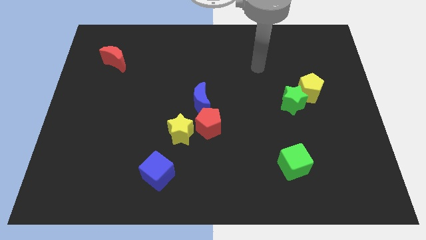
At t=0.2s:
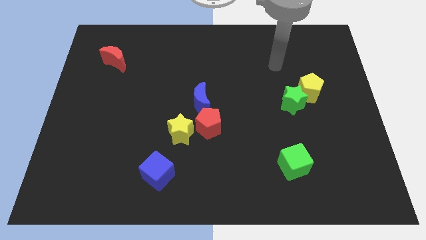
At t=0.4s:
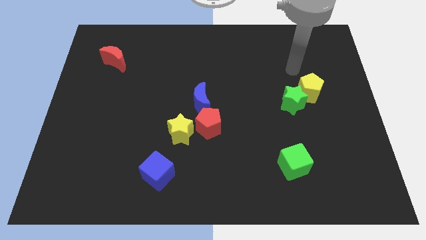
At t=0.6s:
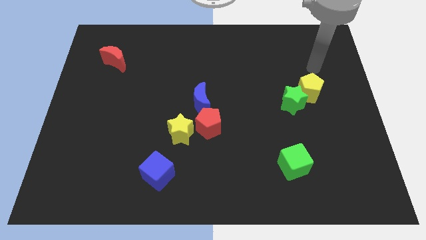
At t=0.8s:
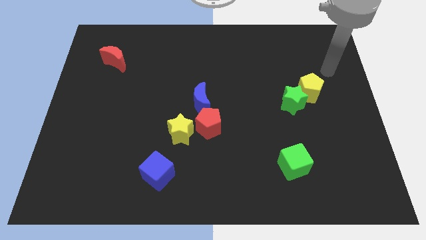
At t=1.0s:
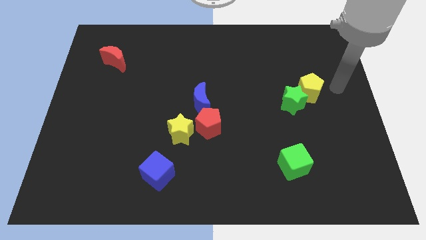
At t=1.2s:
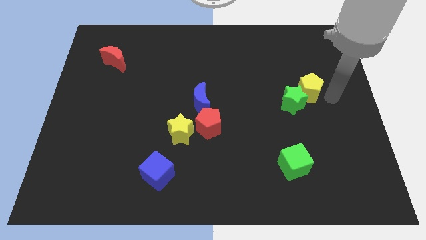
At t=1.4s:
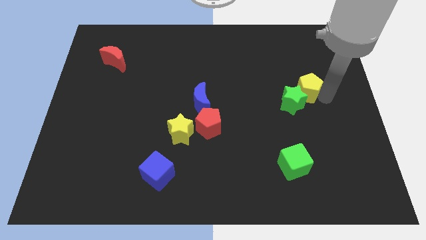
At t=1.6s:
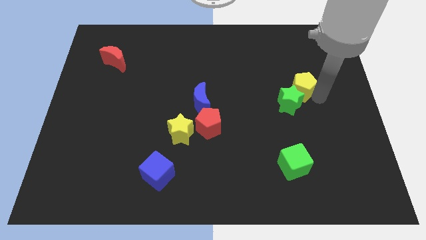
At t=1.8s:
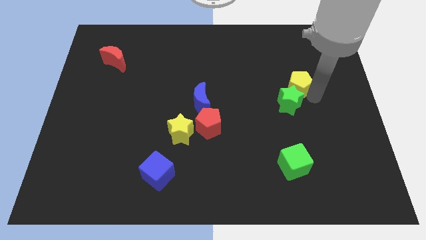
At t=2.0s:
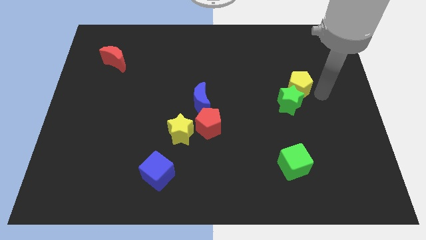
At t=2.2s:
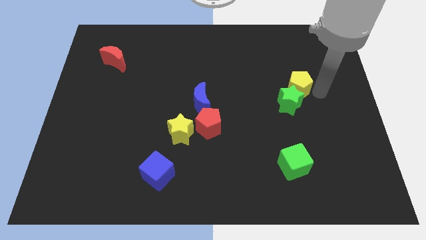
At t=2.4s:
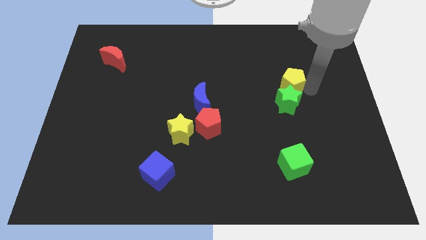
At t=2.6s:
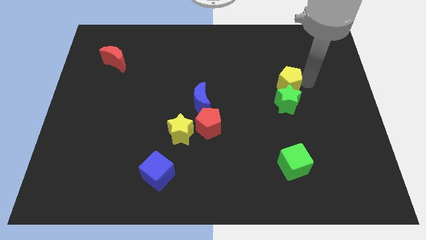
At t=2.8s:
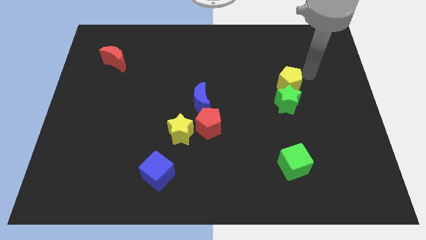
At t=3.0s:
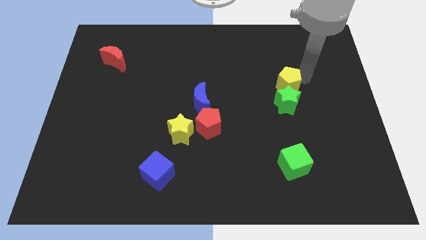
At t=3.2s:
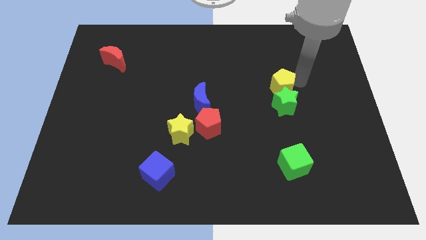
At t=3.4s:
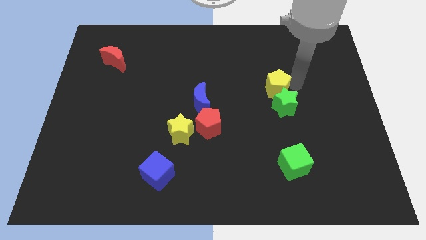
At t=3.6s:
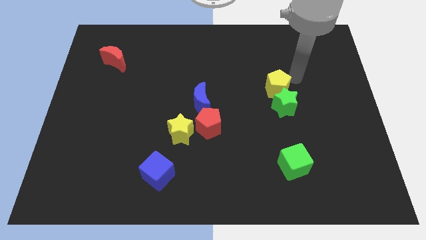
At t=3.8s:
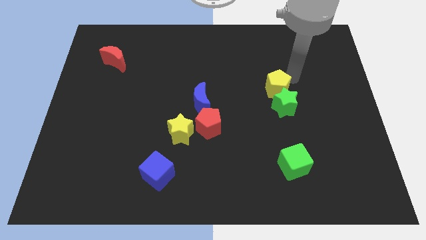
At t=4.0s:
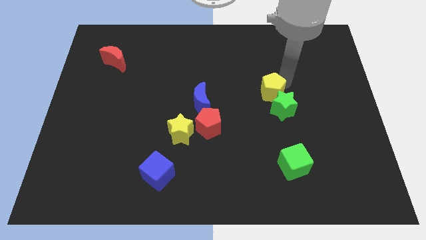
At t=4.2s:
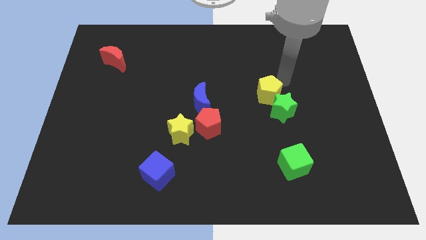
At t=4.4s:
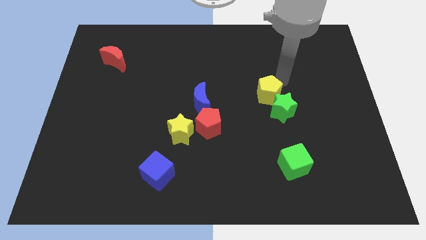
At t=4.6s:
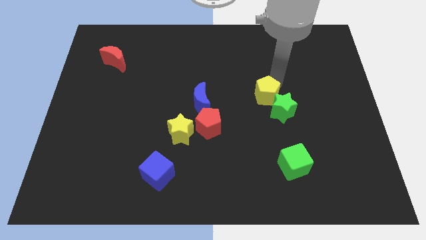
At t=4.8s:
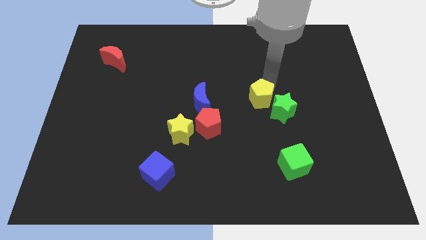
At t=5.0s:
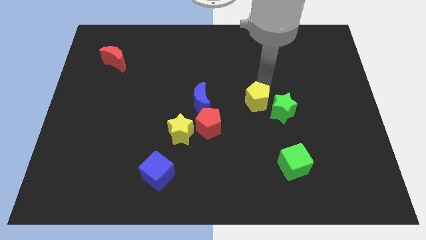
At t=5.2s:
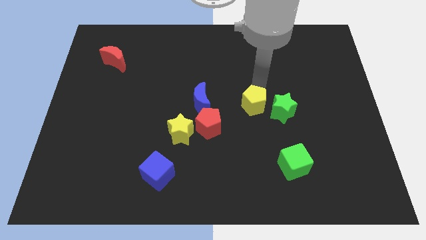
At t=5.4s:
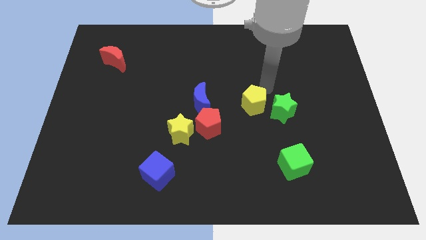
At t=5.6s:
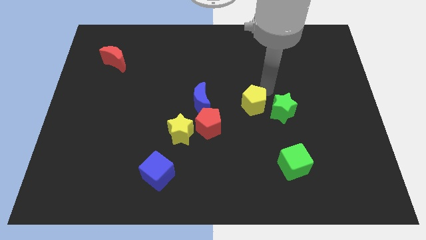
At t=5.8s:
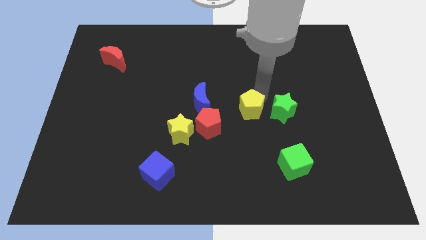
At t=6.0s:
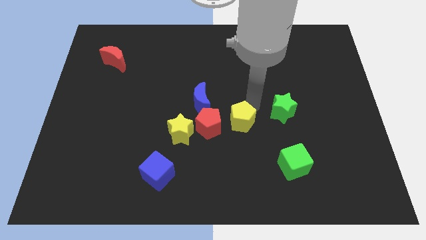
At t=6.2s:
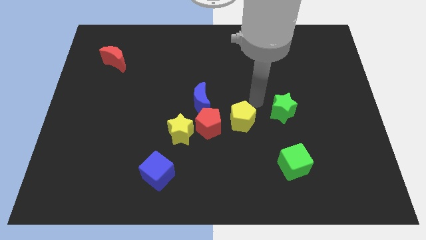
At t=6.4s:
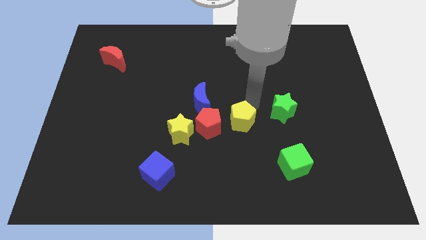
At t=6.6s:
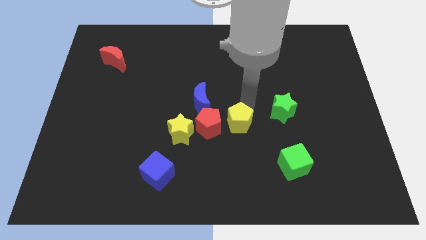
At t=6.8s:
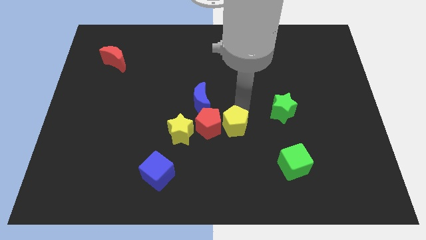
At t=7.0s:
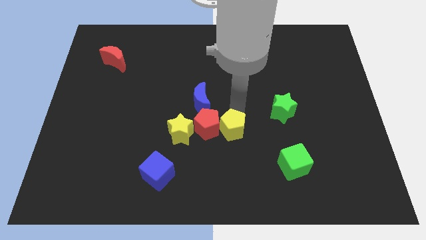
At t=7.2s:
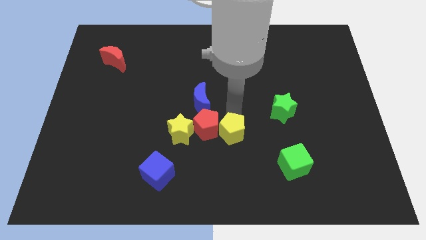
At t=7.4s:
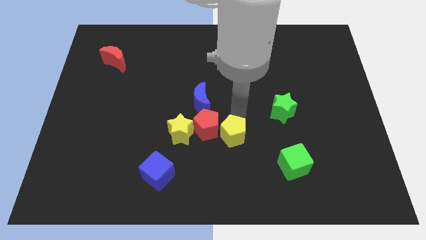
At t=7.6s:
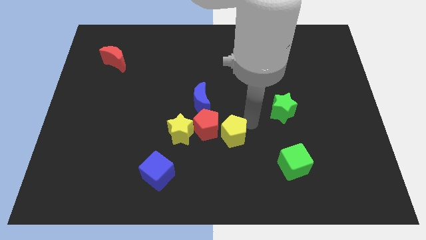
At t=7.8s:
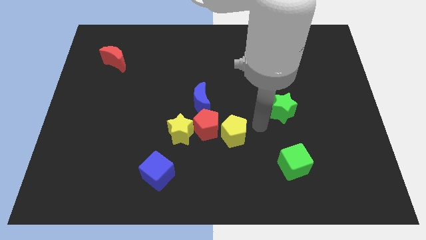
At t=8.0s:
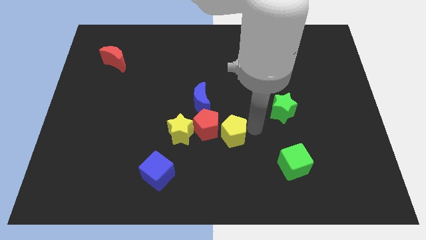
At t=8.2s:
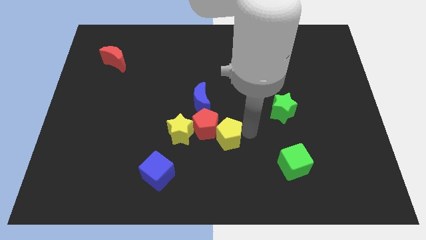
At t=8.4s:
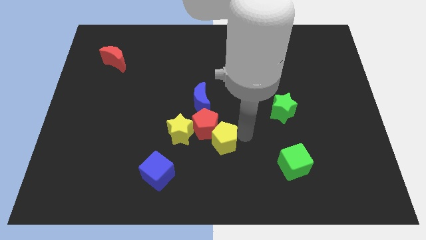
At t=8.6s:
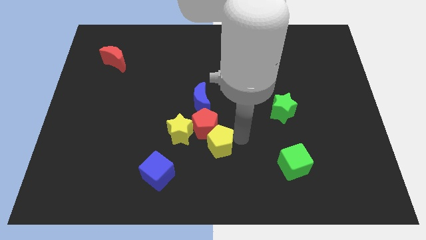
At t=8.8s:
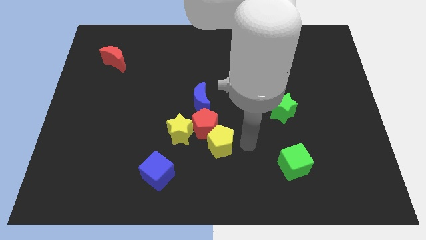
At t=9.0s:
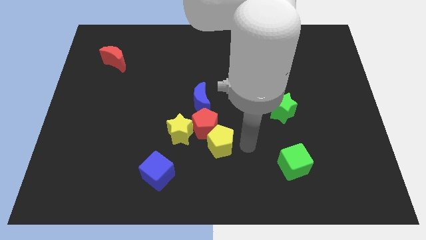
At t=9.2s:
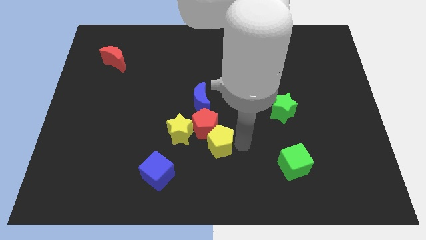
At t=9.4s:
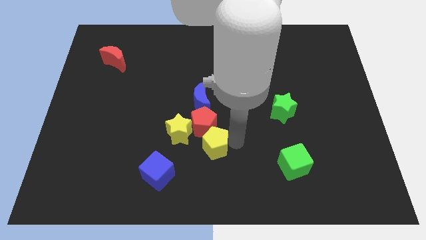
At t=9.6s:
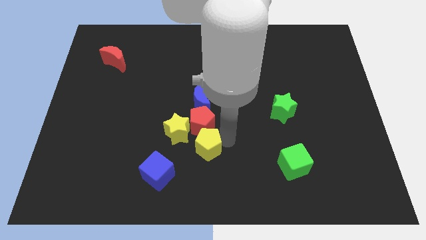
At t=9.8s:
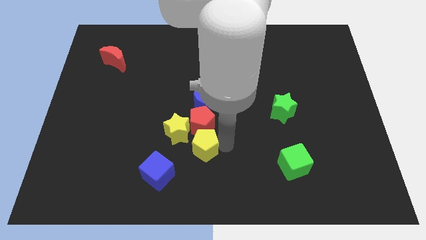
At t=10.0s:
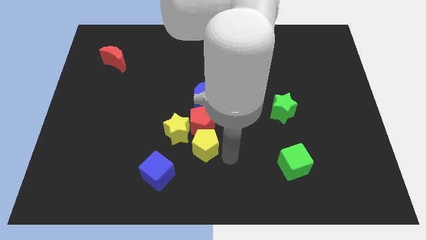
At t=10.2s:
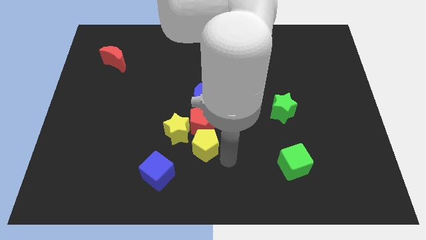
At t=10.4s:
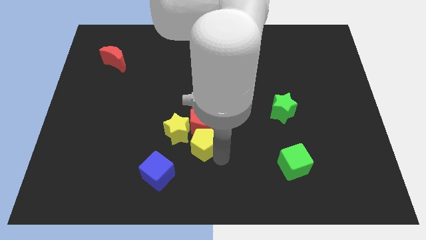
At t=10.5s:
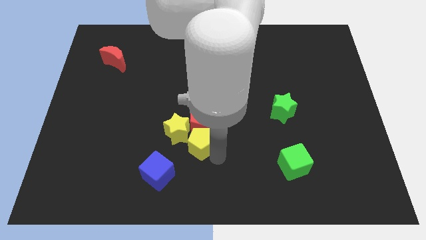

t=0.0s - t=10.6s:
slide the yellow pentagon close to the yellow star

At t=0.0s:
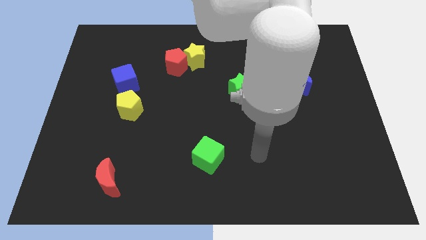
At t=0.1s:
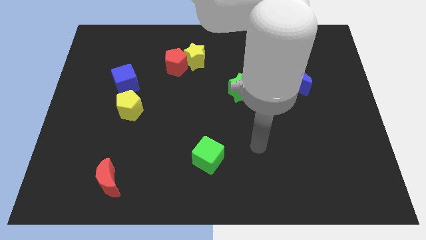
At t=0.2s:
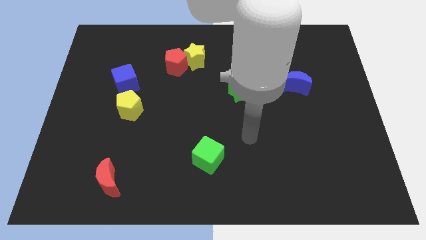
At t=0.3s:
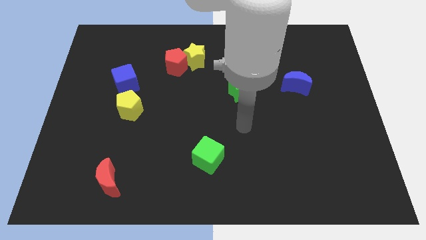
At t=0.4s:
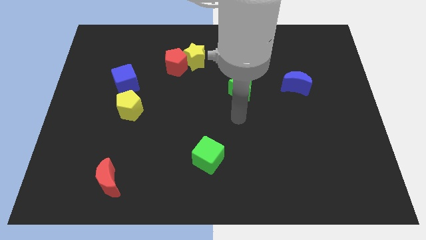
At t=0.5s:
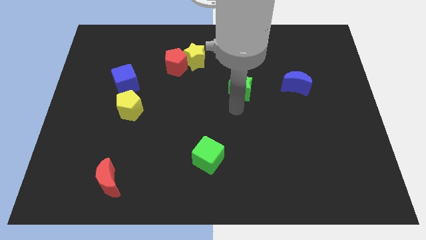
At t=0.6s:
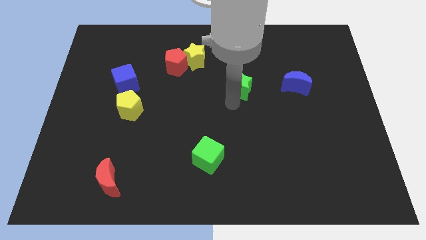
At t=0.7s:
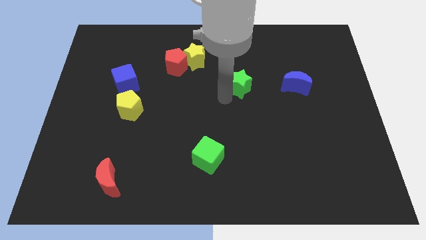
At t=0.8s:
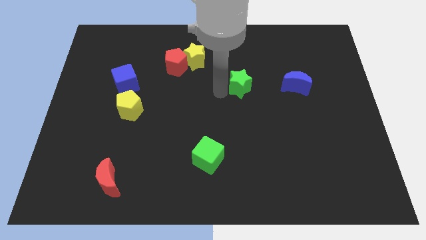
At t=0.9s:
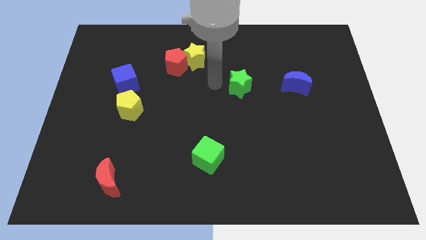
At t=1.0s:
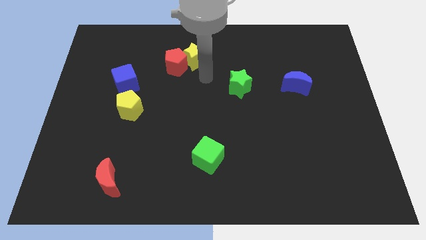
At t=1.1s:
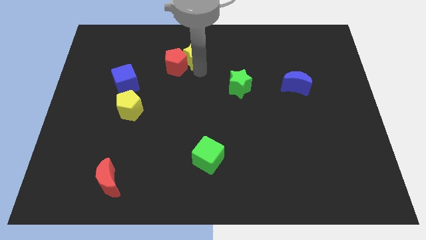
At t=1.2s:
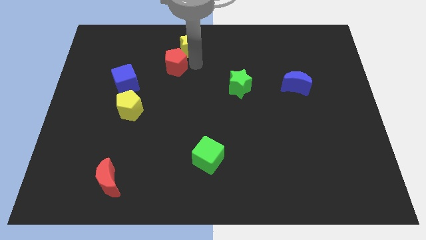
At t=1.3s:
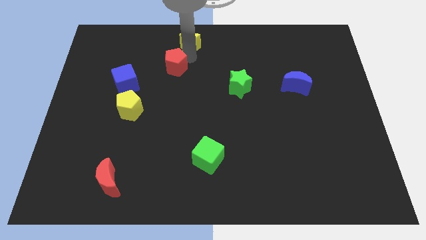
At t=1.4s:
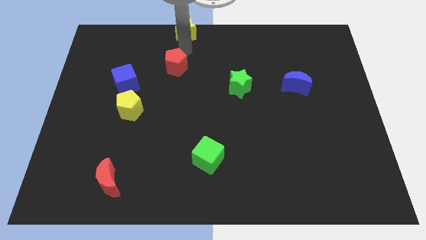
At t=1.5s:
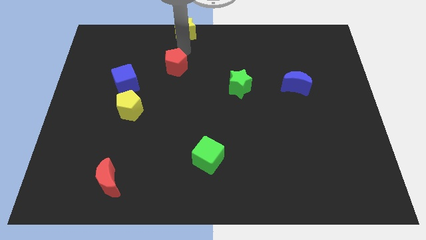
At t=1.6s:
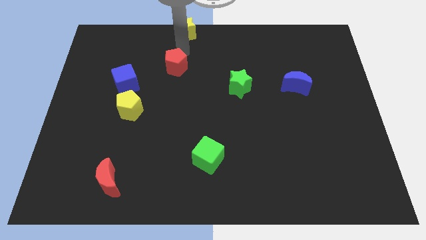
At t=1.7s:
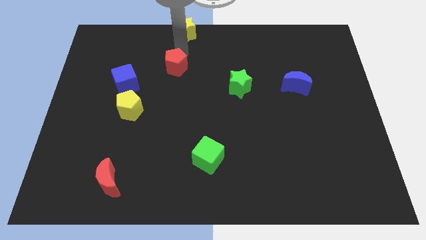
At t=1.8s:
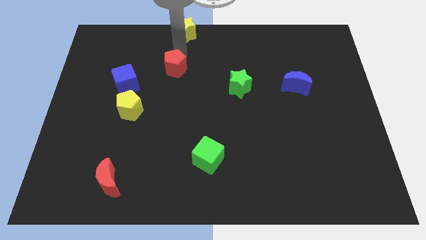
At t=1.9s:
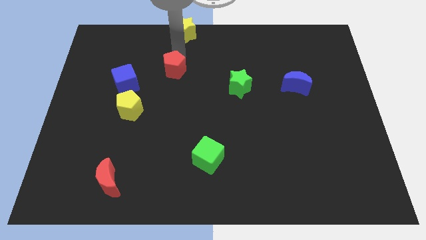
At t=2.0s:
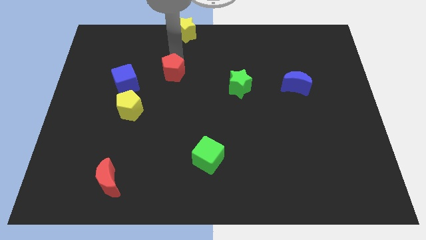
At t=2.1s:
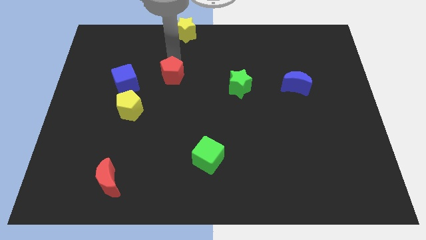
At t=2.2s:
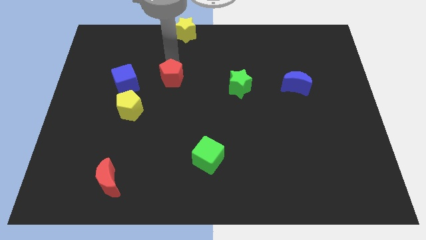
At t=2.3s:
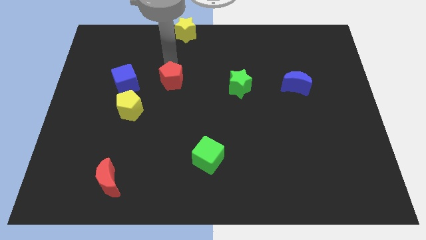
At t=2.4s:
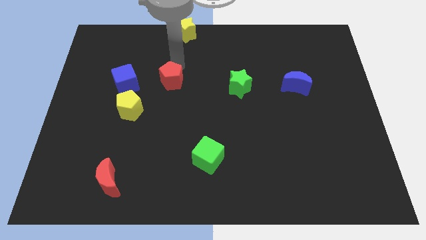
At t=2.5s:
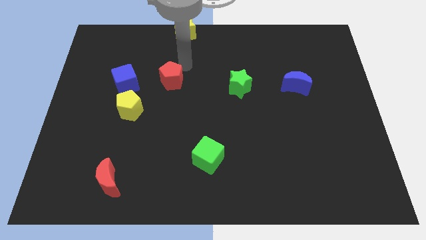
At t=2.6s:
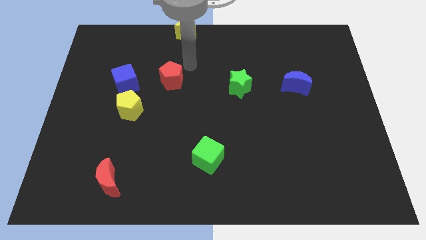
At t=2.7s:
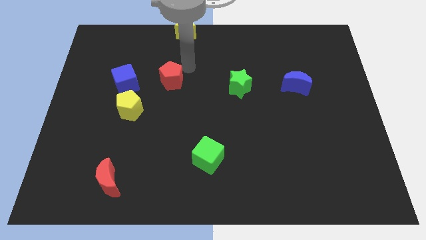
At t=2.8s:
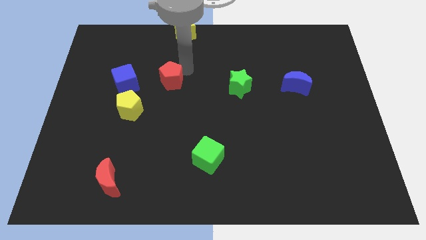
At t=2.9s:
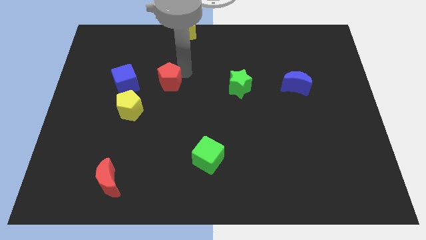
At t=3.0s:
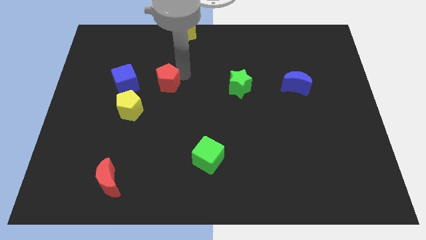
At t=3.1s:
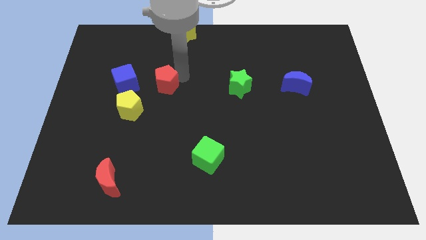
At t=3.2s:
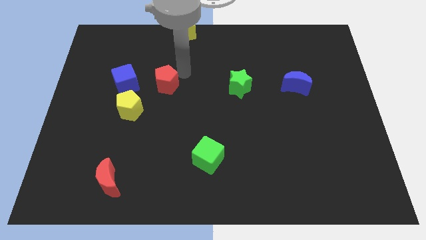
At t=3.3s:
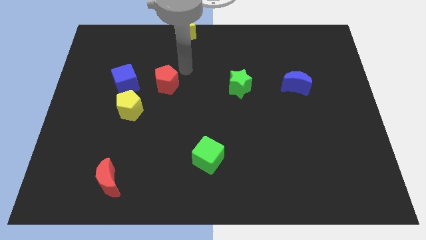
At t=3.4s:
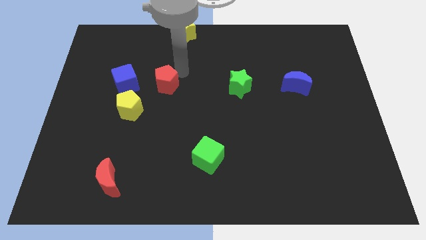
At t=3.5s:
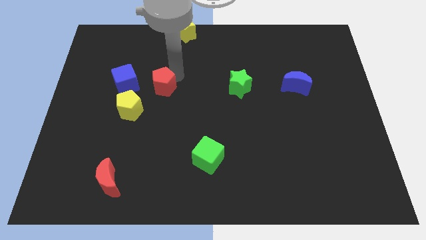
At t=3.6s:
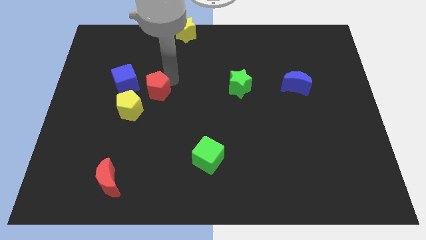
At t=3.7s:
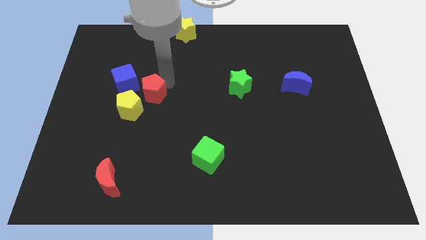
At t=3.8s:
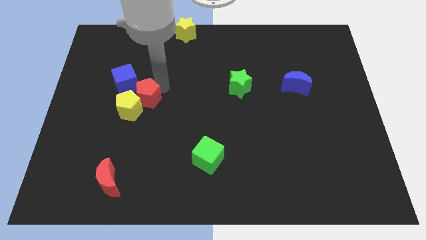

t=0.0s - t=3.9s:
move the red pentagon to the yellow pentagon
